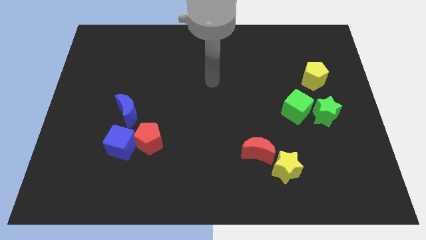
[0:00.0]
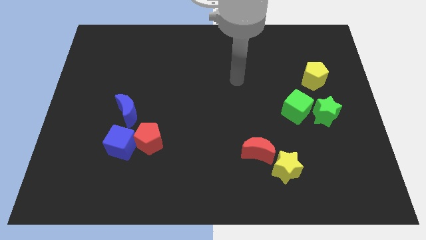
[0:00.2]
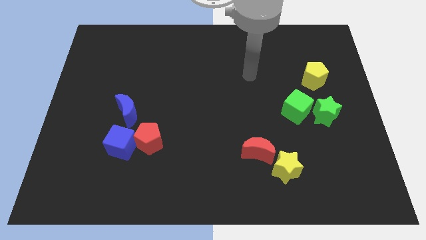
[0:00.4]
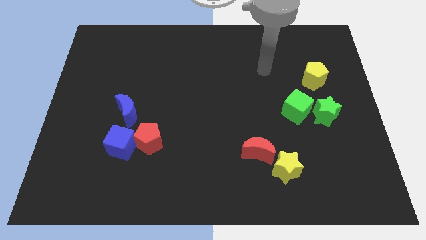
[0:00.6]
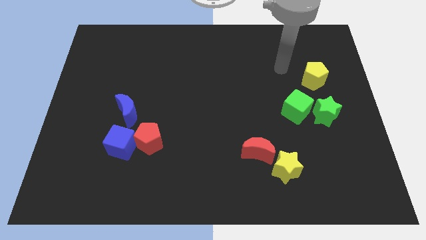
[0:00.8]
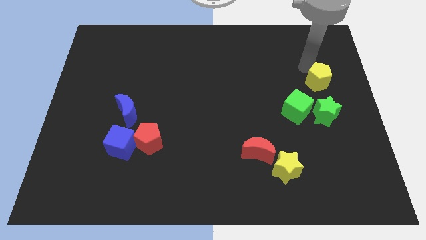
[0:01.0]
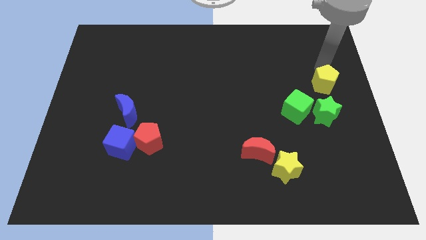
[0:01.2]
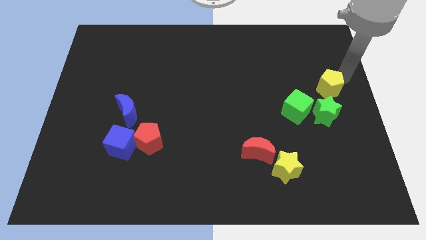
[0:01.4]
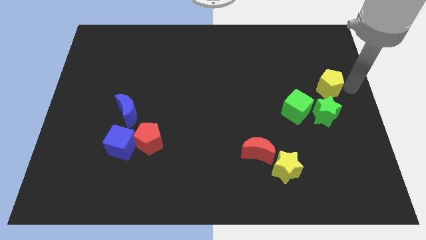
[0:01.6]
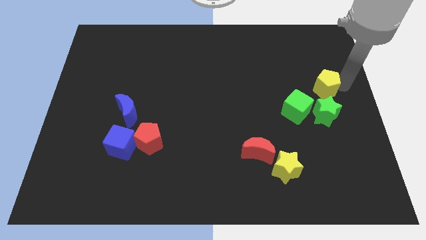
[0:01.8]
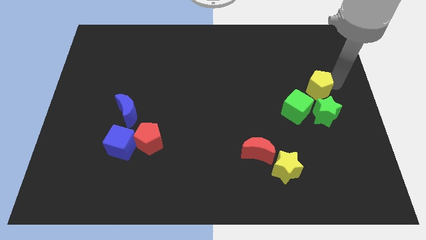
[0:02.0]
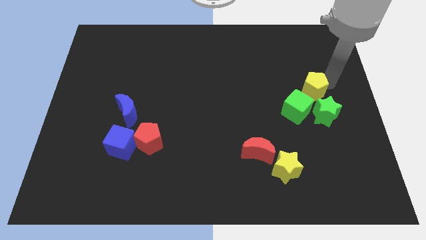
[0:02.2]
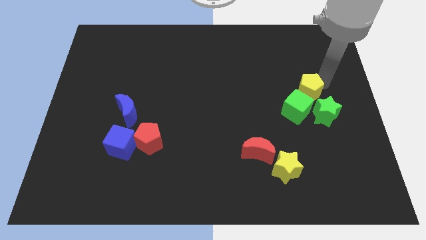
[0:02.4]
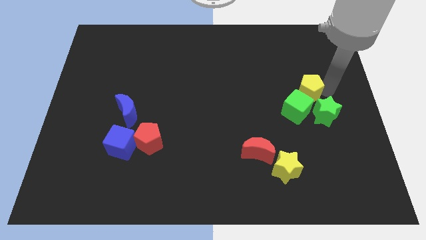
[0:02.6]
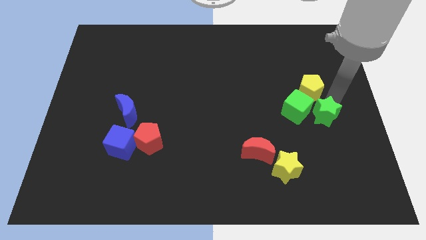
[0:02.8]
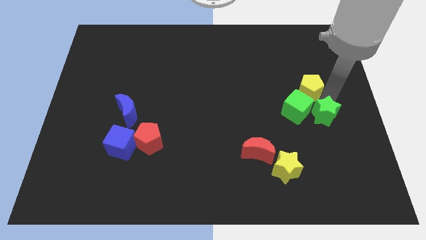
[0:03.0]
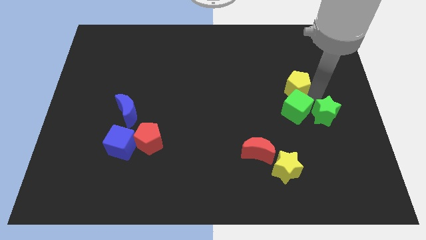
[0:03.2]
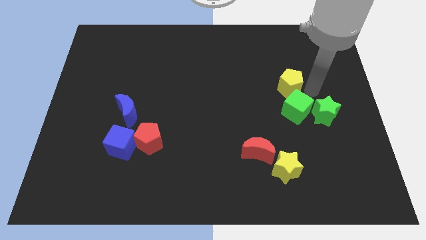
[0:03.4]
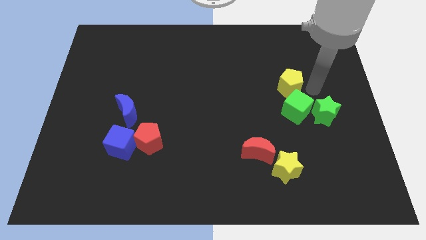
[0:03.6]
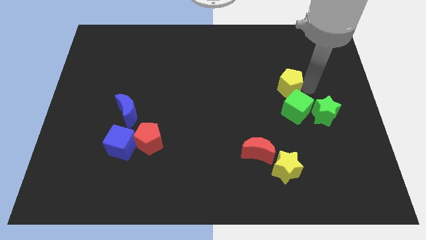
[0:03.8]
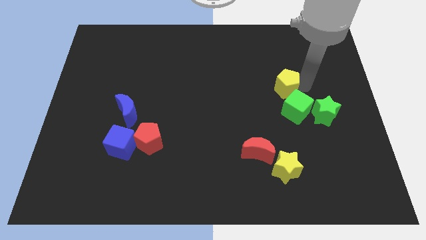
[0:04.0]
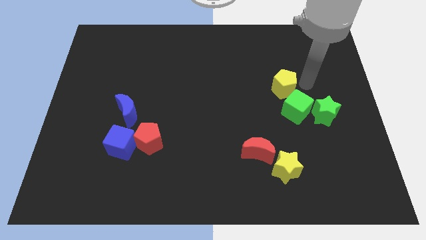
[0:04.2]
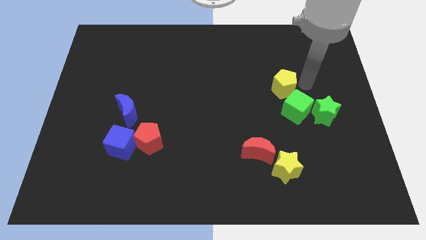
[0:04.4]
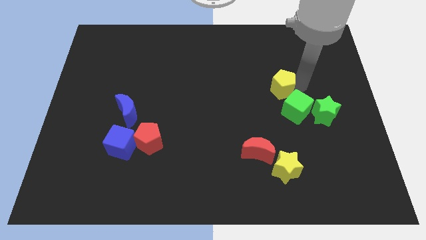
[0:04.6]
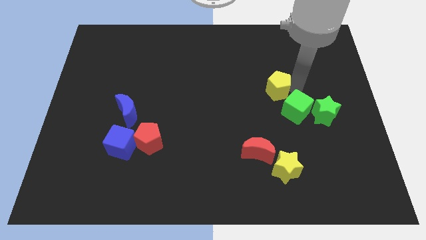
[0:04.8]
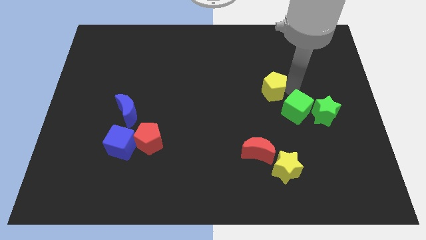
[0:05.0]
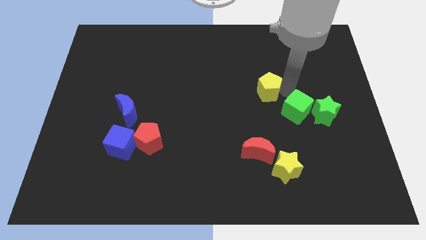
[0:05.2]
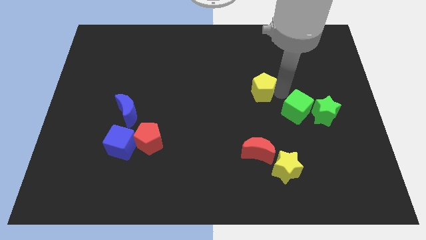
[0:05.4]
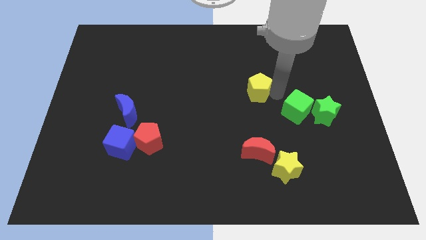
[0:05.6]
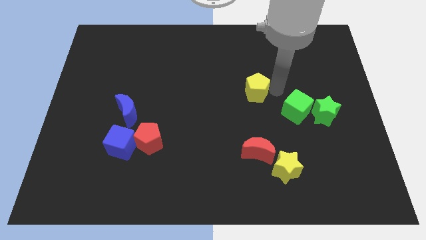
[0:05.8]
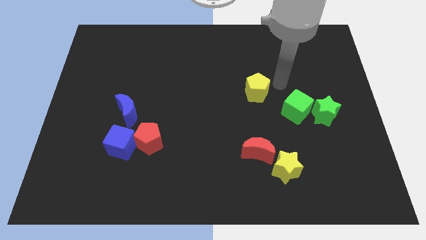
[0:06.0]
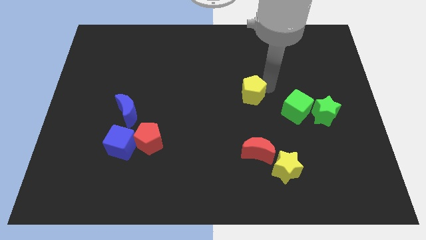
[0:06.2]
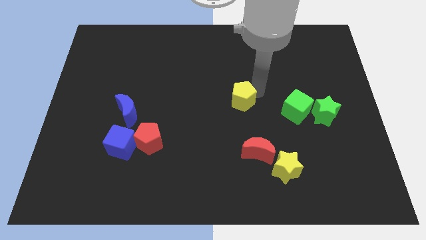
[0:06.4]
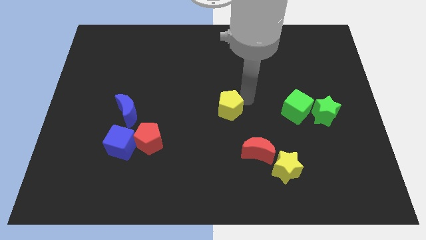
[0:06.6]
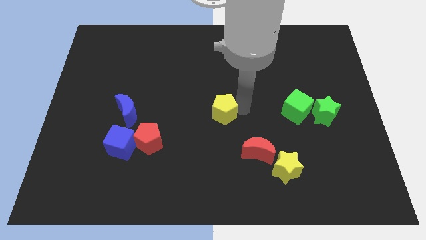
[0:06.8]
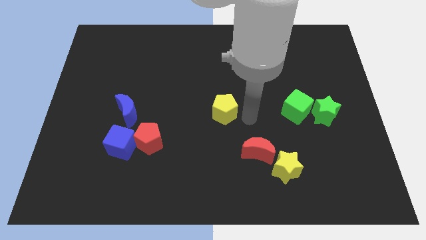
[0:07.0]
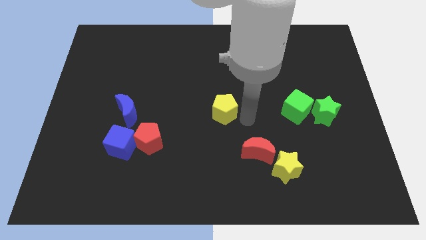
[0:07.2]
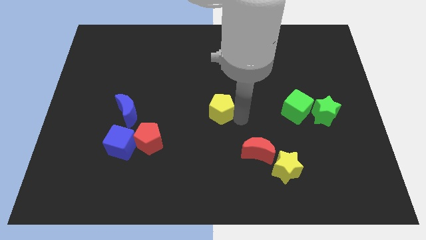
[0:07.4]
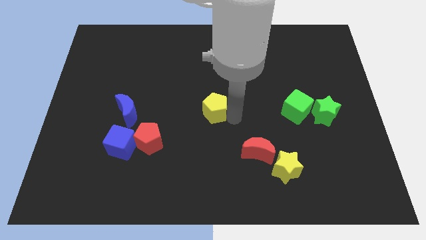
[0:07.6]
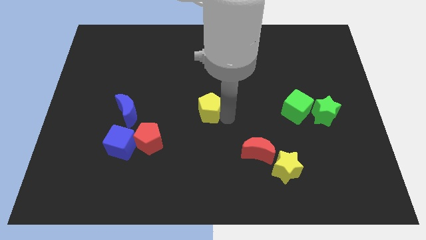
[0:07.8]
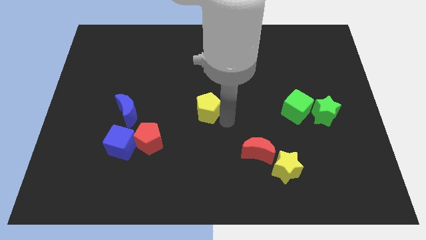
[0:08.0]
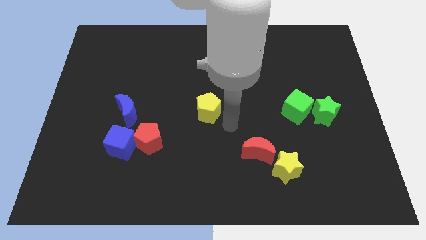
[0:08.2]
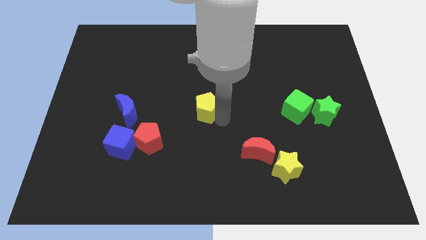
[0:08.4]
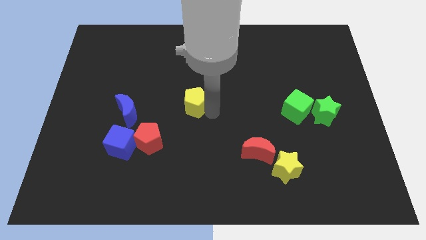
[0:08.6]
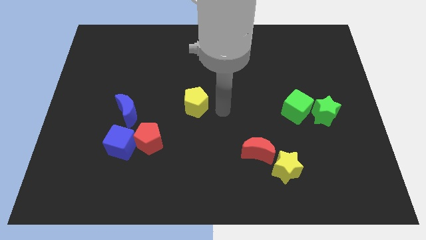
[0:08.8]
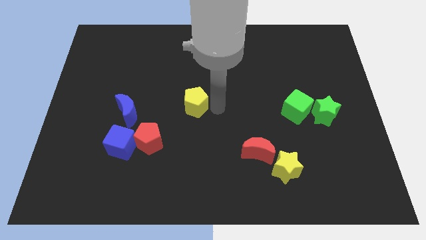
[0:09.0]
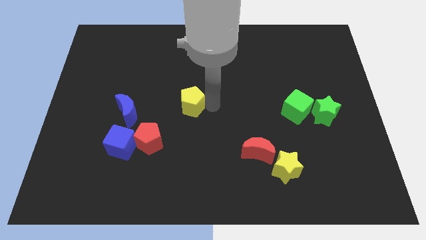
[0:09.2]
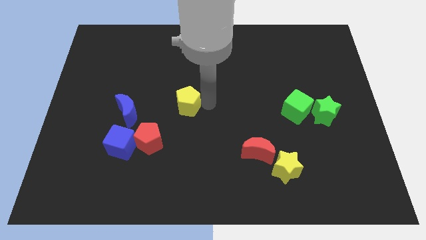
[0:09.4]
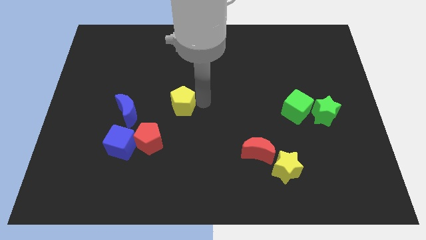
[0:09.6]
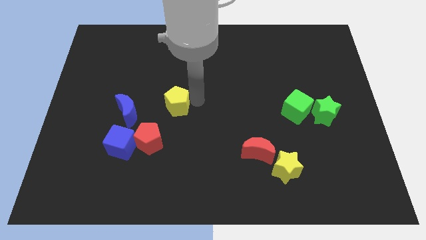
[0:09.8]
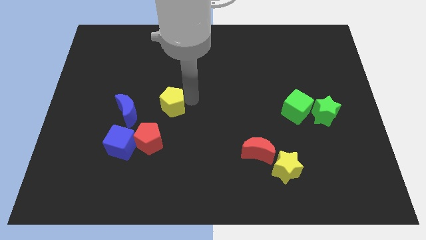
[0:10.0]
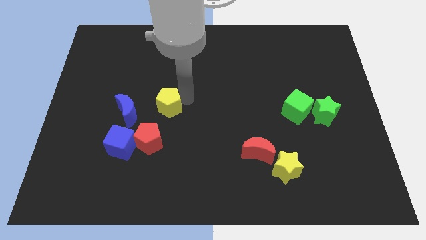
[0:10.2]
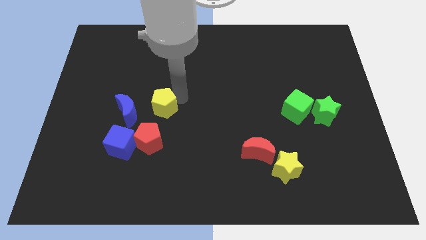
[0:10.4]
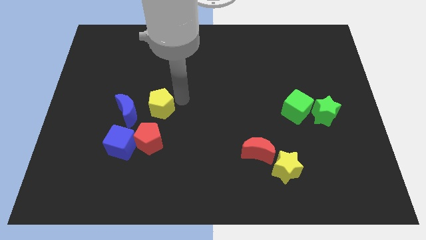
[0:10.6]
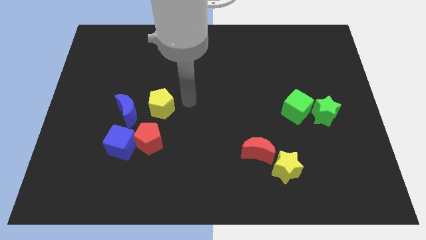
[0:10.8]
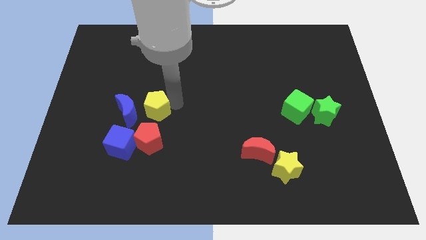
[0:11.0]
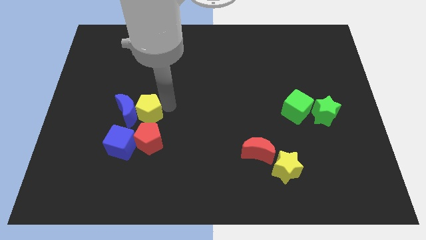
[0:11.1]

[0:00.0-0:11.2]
push the yellow pentagon to the blue moon
